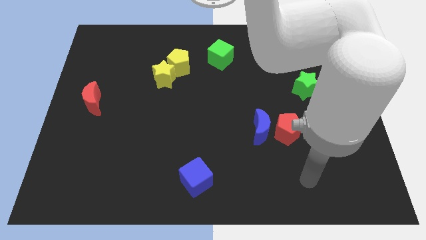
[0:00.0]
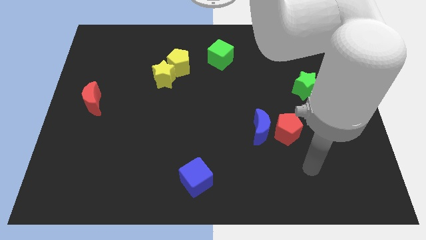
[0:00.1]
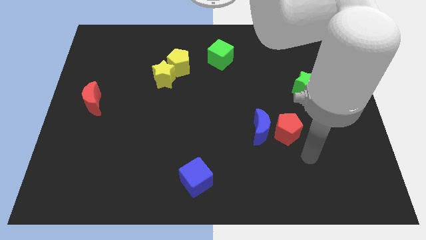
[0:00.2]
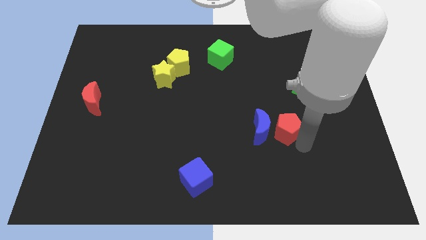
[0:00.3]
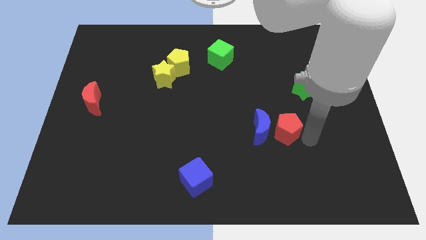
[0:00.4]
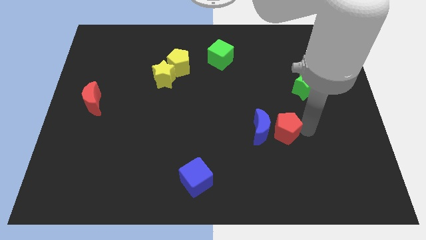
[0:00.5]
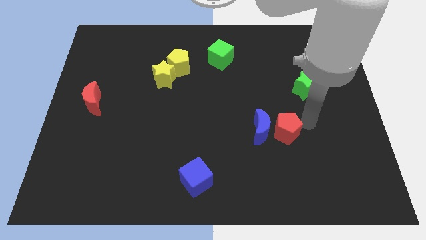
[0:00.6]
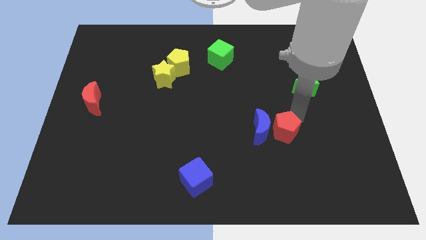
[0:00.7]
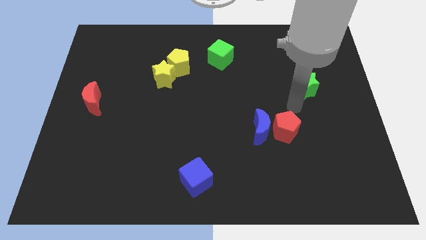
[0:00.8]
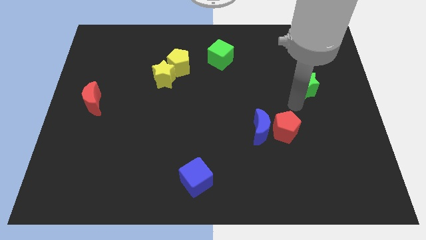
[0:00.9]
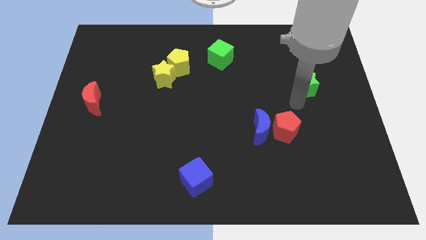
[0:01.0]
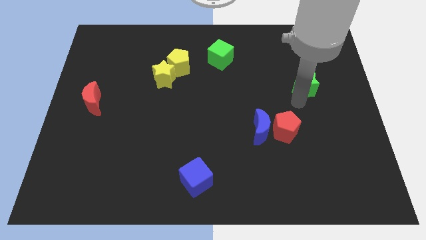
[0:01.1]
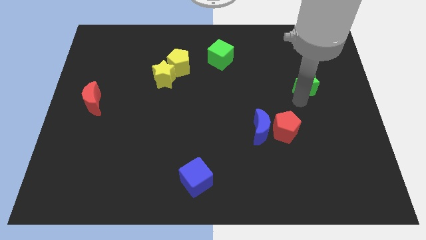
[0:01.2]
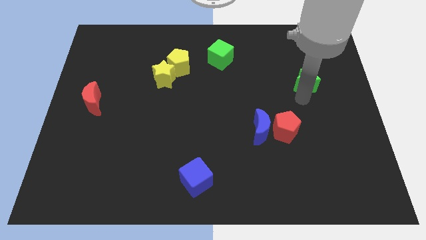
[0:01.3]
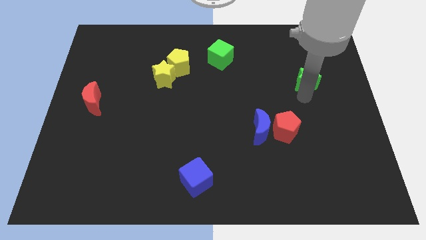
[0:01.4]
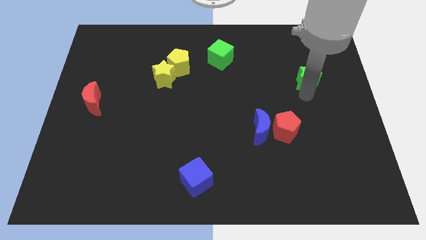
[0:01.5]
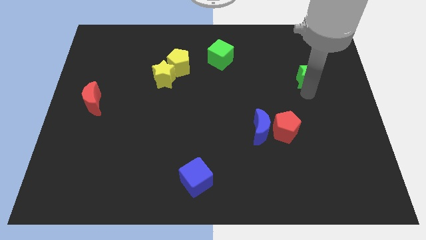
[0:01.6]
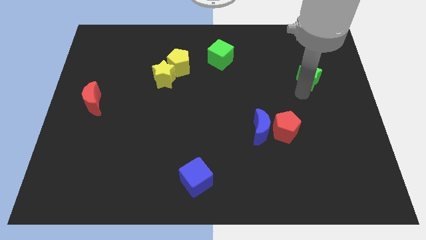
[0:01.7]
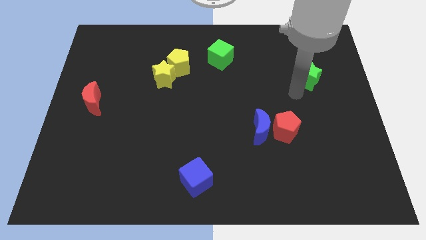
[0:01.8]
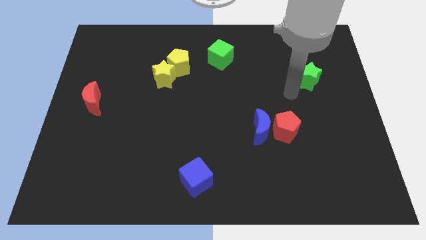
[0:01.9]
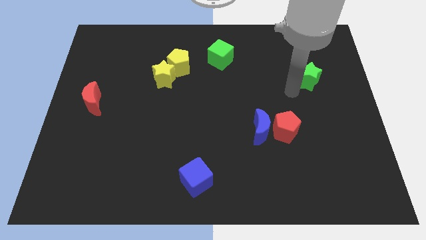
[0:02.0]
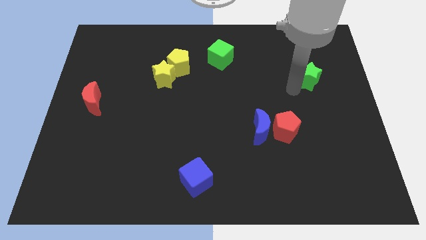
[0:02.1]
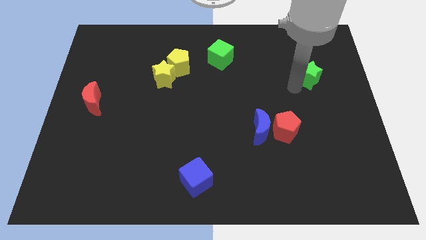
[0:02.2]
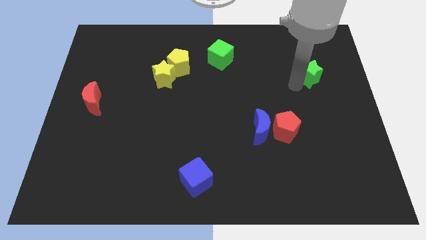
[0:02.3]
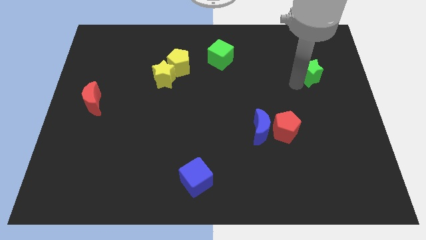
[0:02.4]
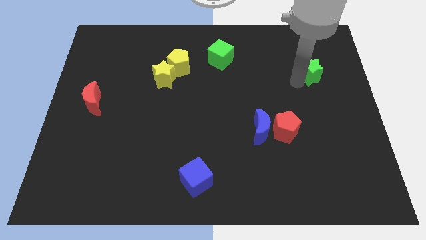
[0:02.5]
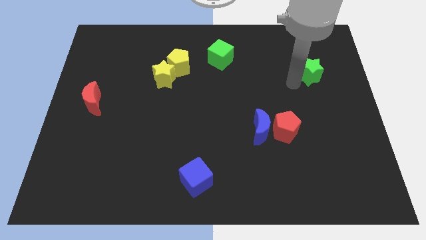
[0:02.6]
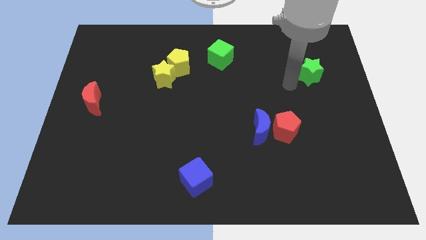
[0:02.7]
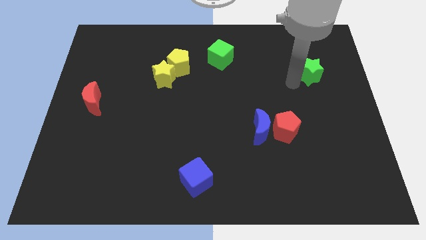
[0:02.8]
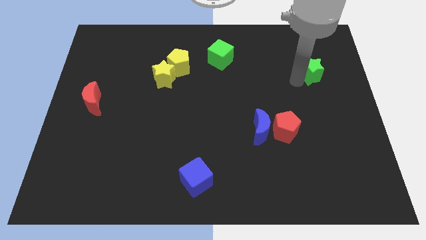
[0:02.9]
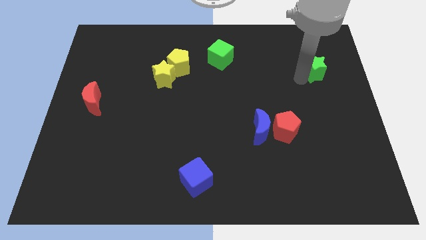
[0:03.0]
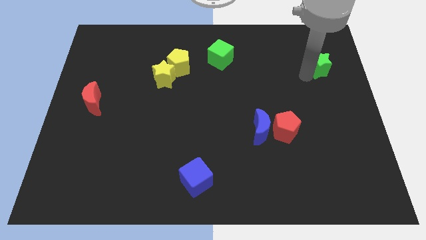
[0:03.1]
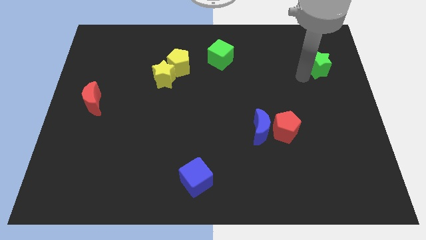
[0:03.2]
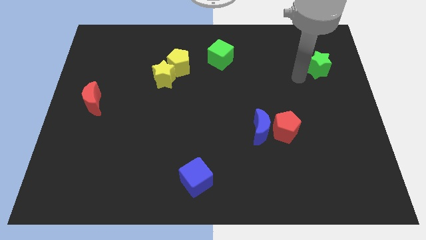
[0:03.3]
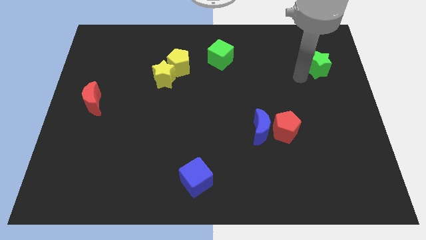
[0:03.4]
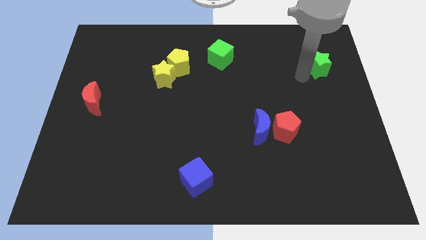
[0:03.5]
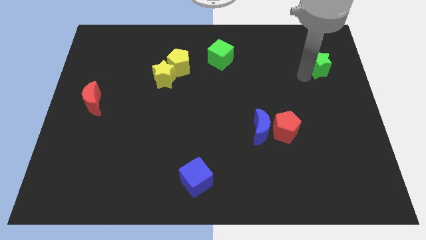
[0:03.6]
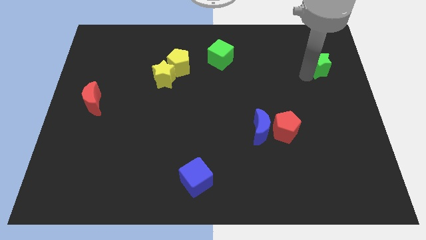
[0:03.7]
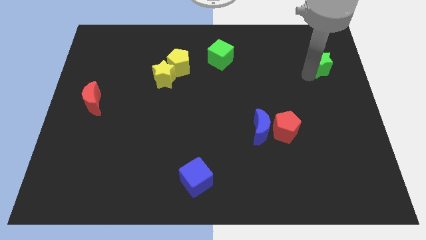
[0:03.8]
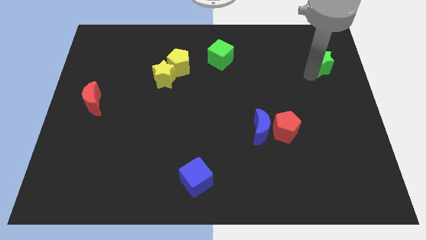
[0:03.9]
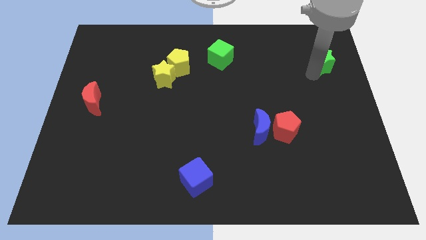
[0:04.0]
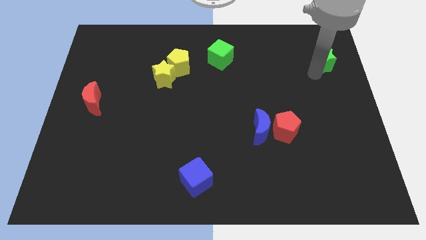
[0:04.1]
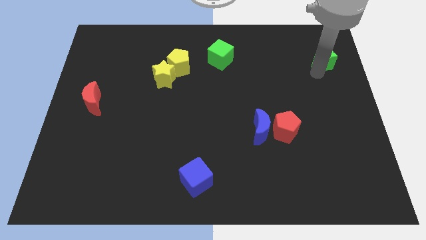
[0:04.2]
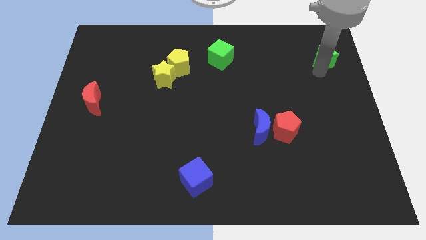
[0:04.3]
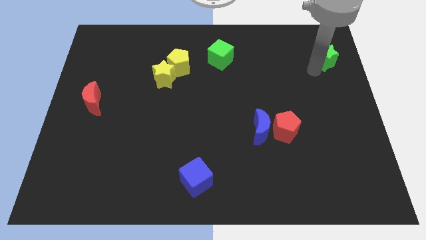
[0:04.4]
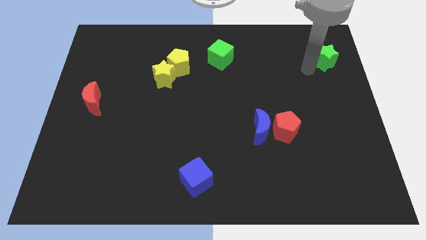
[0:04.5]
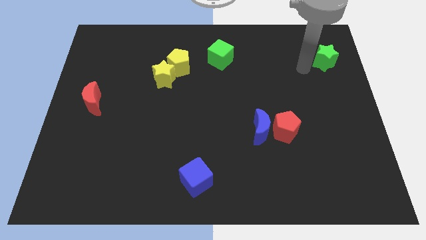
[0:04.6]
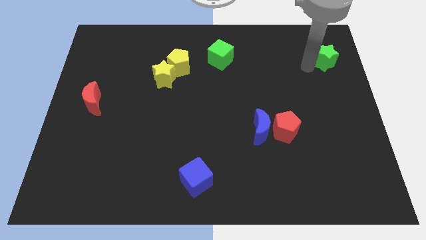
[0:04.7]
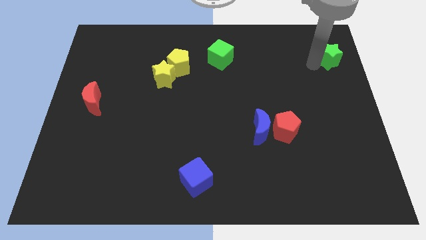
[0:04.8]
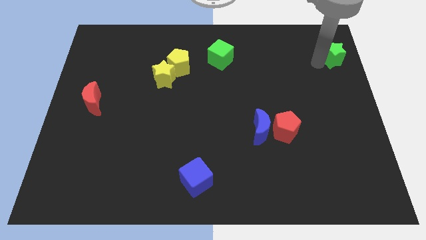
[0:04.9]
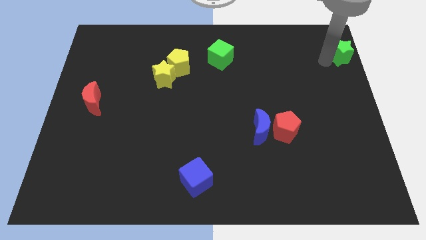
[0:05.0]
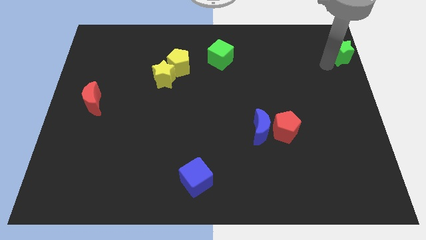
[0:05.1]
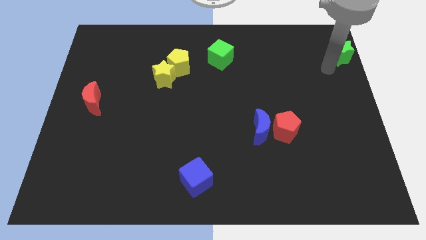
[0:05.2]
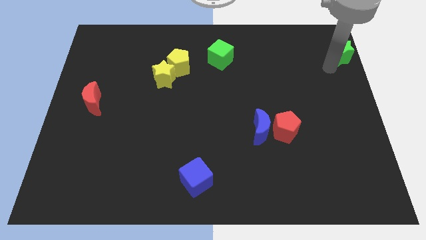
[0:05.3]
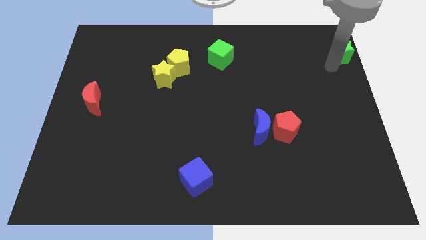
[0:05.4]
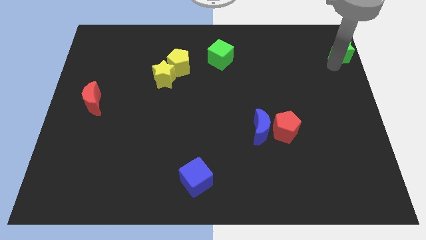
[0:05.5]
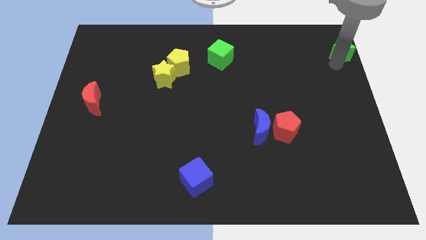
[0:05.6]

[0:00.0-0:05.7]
move the green star to the top right corner

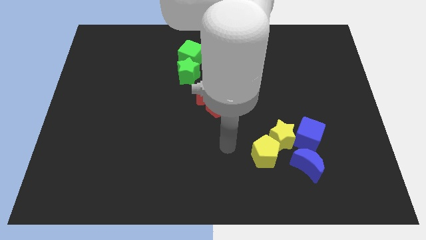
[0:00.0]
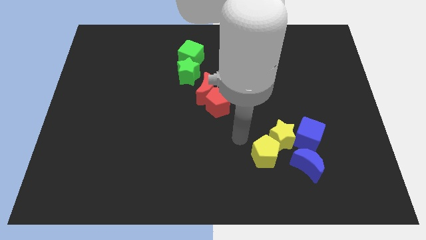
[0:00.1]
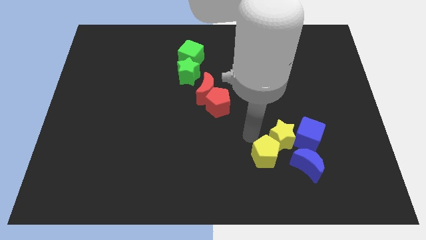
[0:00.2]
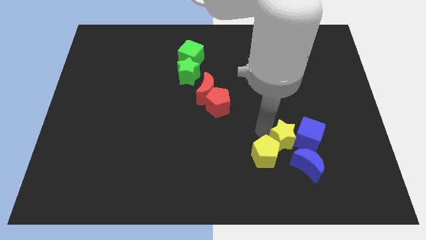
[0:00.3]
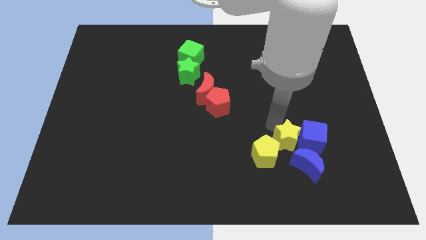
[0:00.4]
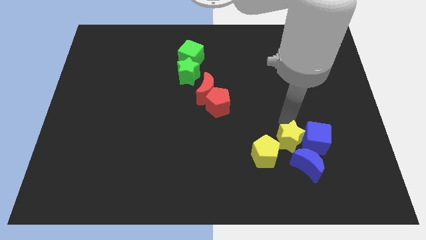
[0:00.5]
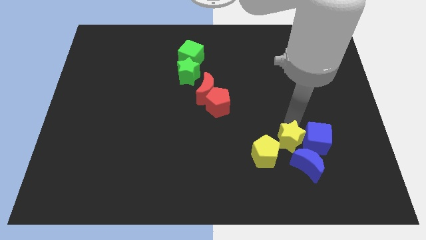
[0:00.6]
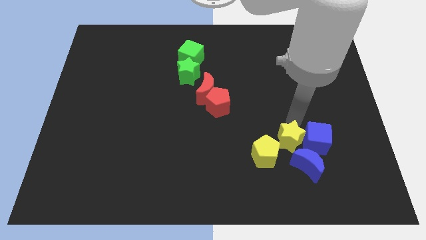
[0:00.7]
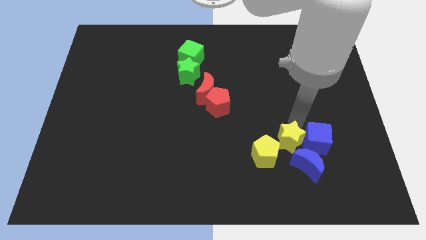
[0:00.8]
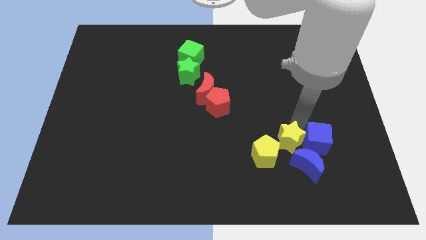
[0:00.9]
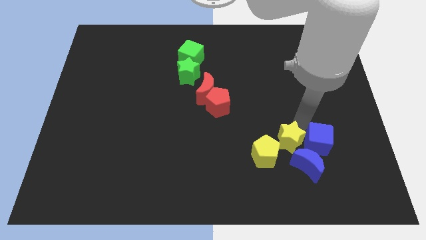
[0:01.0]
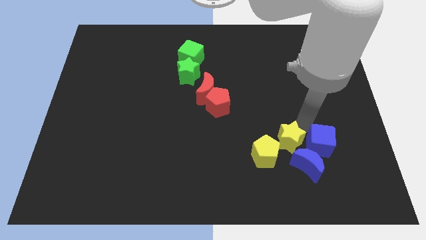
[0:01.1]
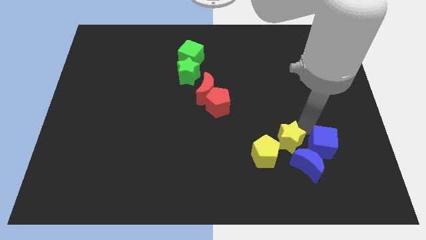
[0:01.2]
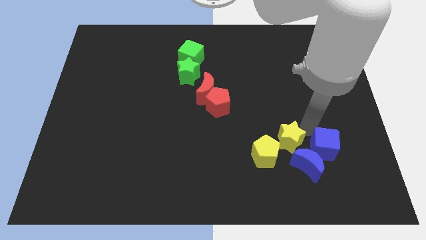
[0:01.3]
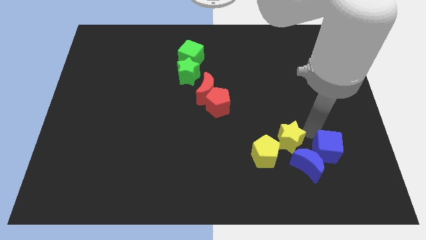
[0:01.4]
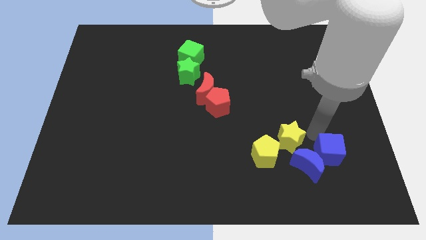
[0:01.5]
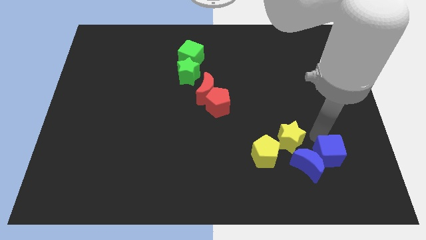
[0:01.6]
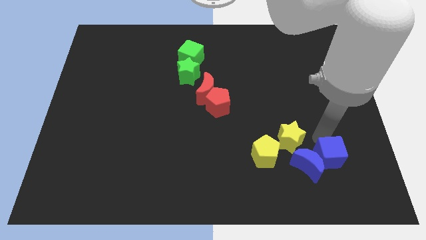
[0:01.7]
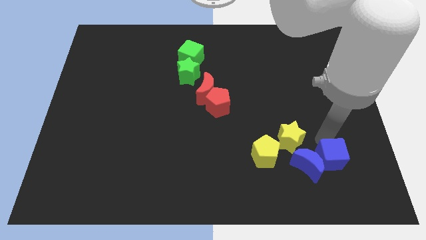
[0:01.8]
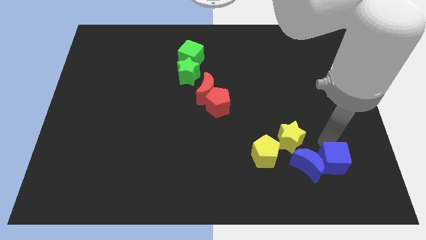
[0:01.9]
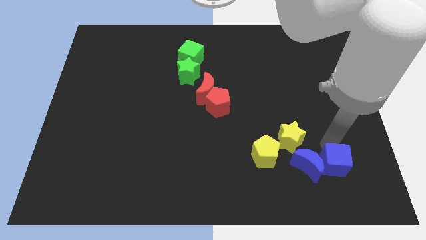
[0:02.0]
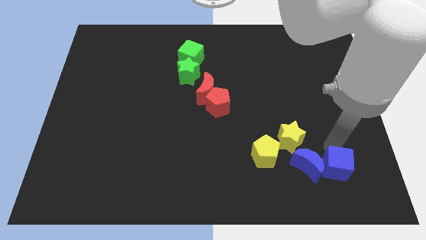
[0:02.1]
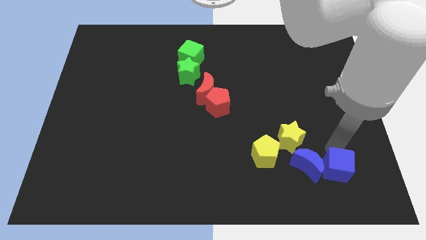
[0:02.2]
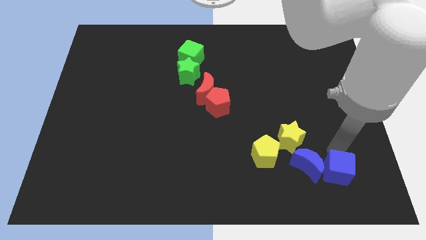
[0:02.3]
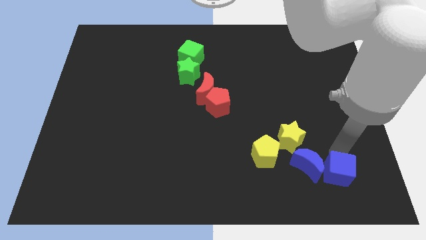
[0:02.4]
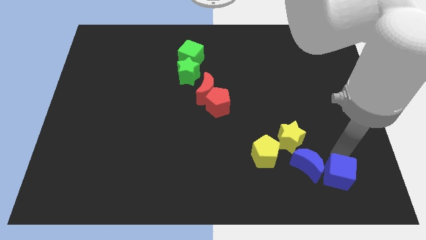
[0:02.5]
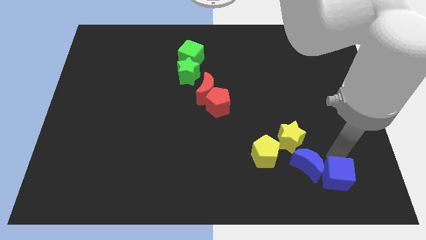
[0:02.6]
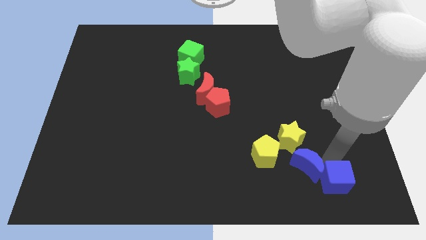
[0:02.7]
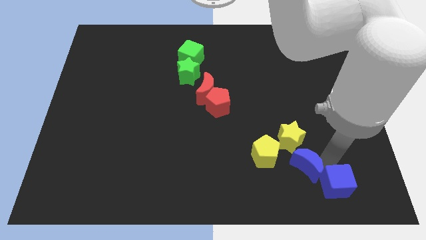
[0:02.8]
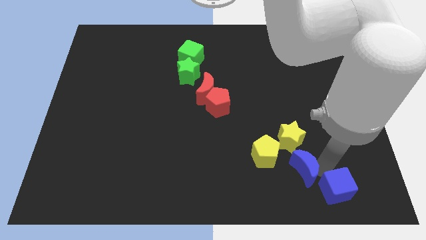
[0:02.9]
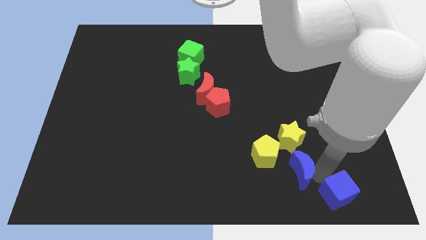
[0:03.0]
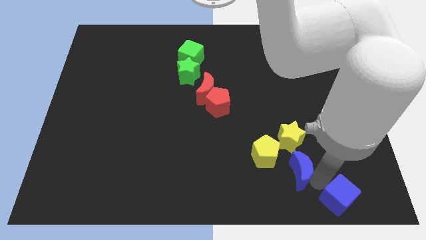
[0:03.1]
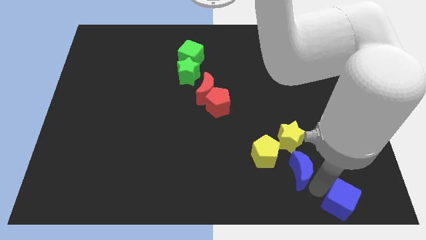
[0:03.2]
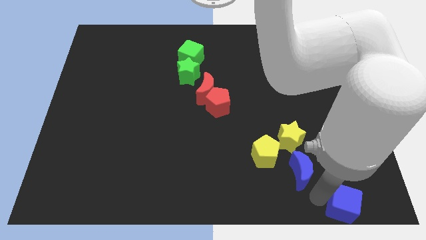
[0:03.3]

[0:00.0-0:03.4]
push the blue cube to the bottom right corner
